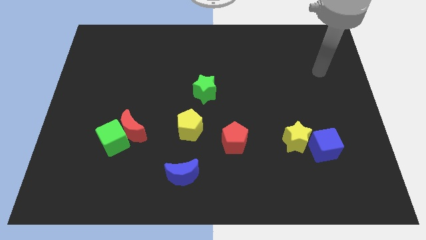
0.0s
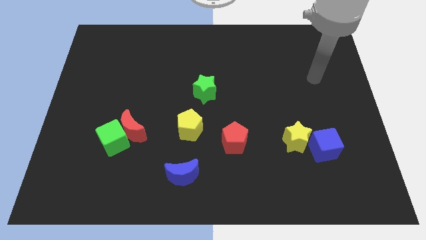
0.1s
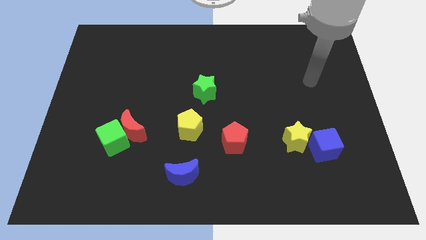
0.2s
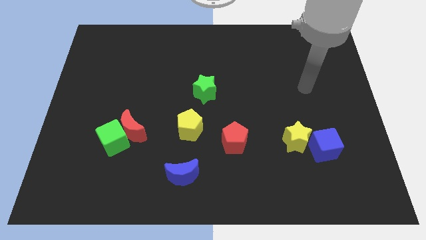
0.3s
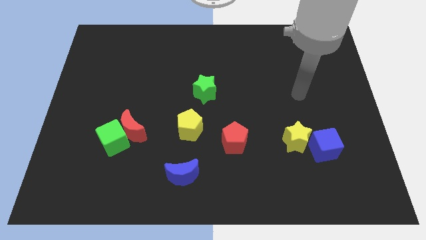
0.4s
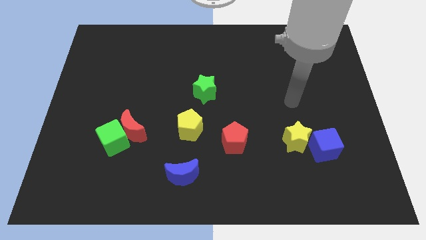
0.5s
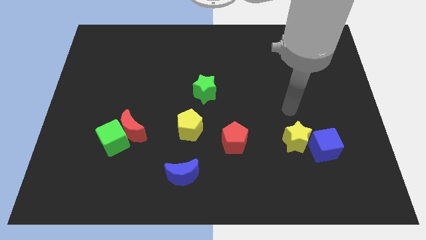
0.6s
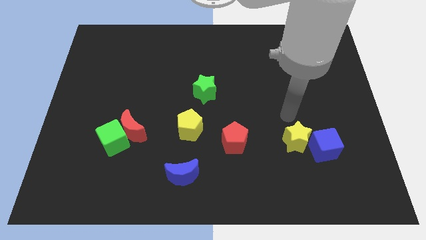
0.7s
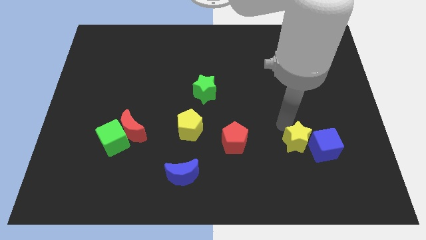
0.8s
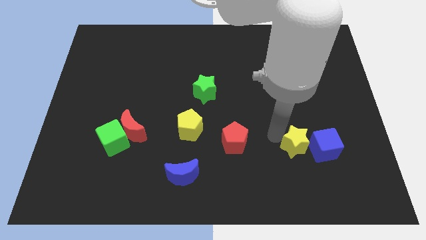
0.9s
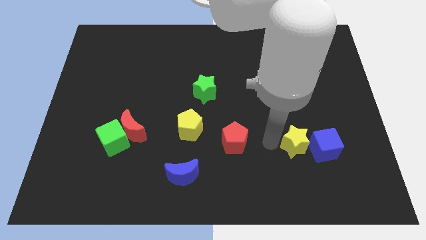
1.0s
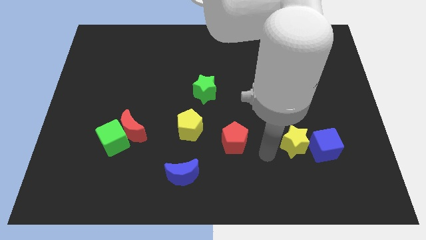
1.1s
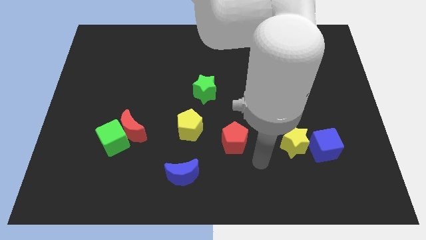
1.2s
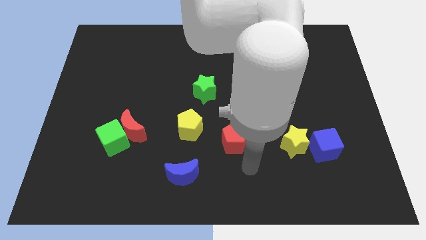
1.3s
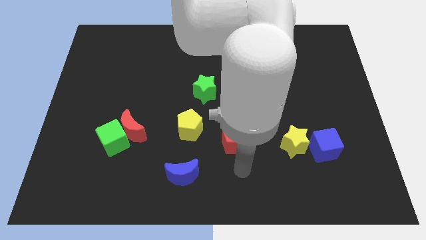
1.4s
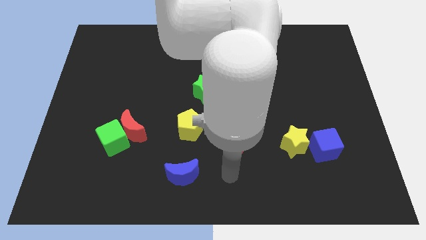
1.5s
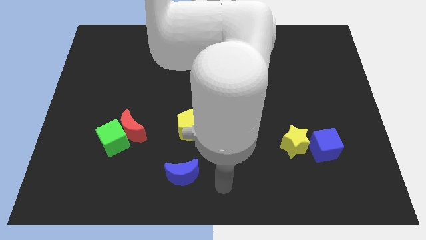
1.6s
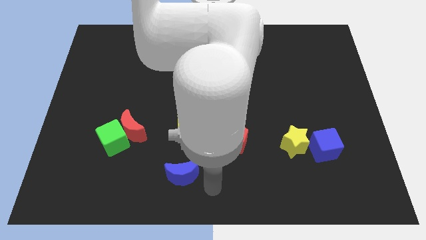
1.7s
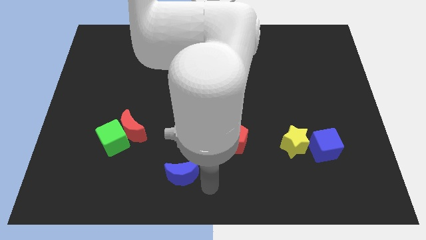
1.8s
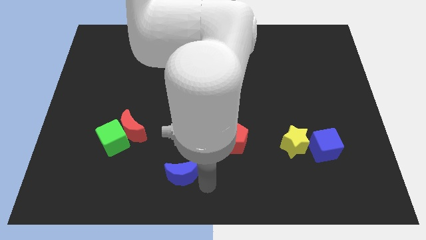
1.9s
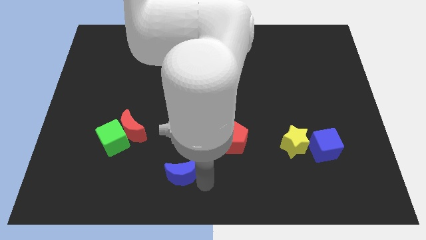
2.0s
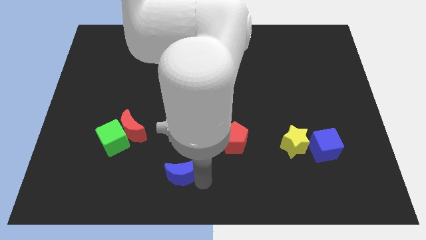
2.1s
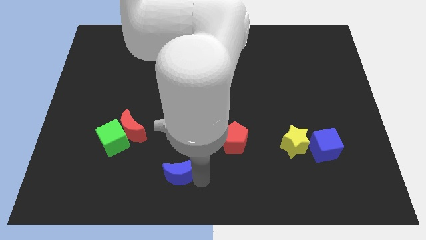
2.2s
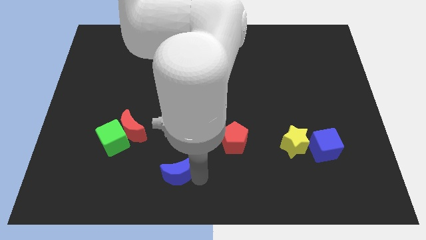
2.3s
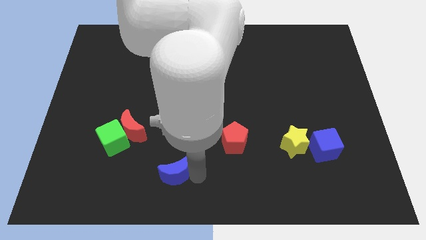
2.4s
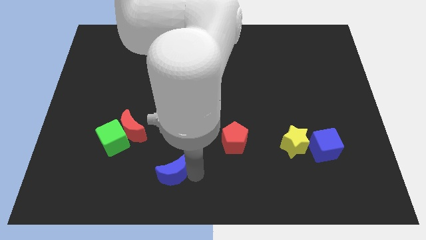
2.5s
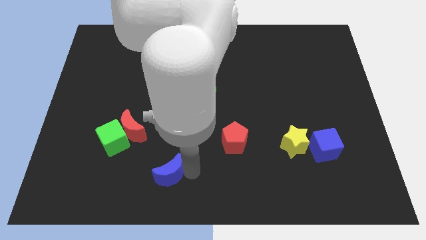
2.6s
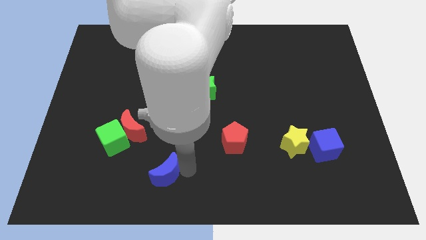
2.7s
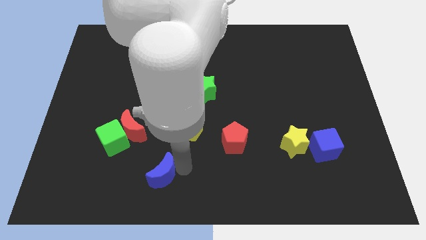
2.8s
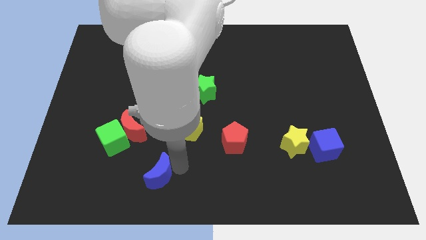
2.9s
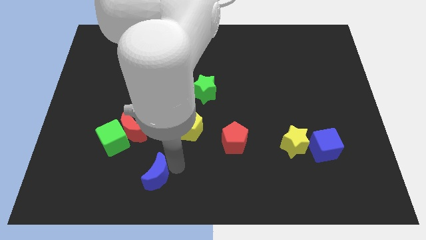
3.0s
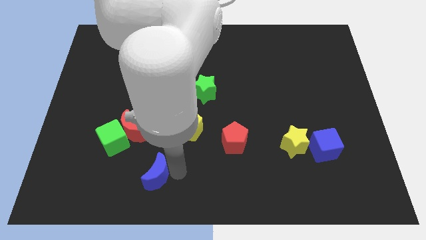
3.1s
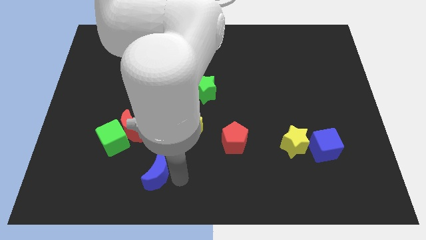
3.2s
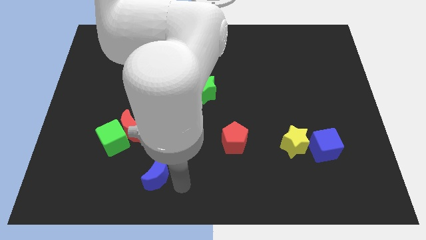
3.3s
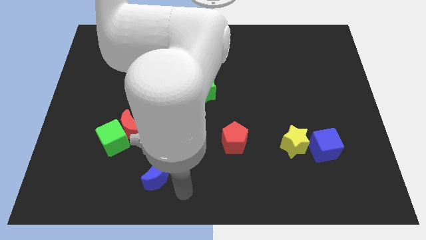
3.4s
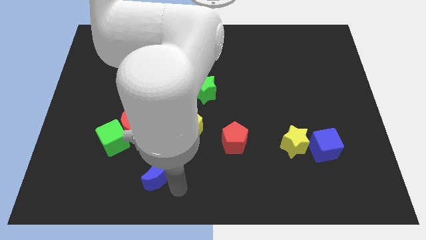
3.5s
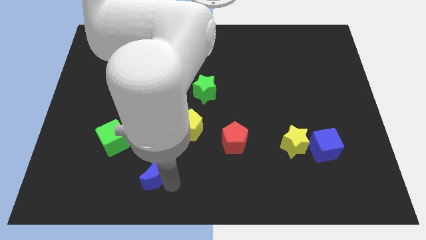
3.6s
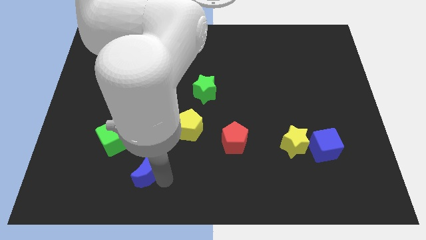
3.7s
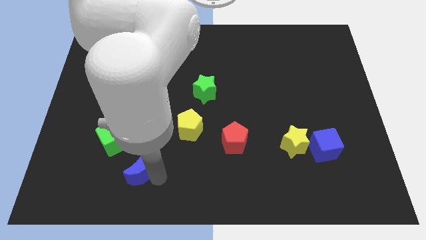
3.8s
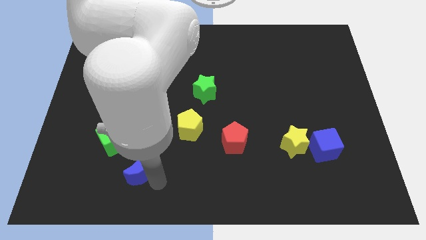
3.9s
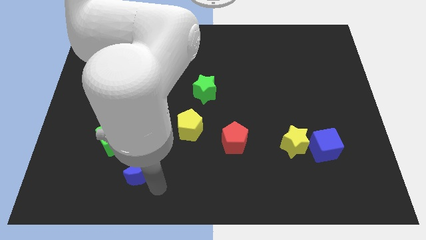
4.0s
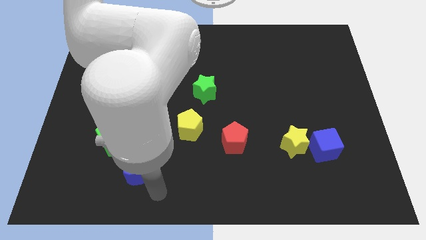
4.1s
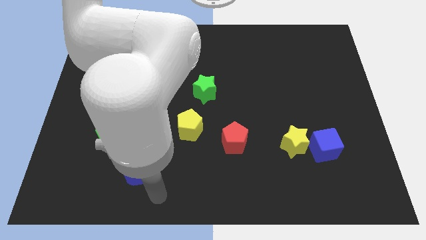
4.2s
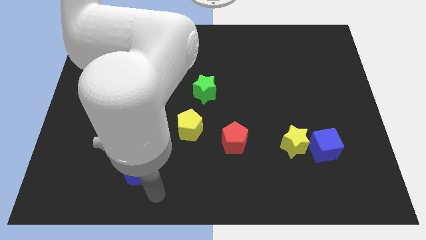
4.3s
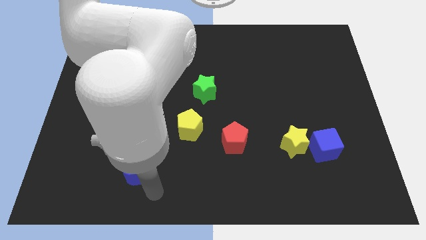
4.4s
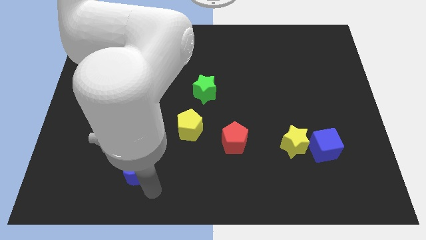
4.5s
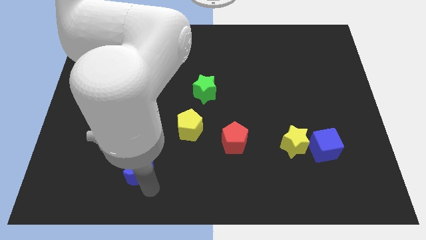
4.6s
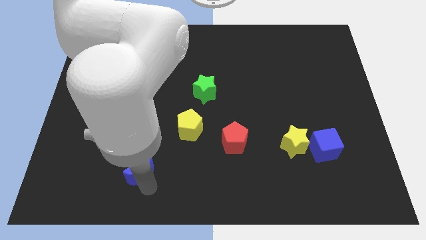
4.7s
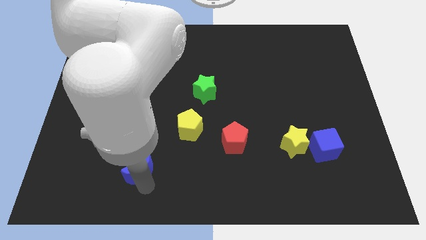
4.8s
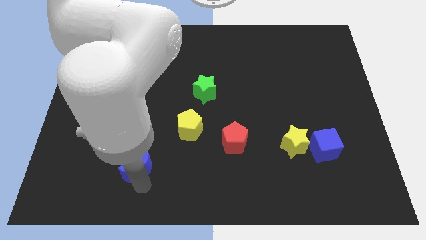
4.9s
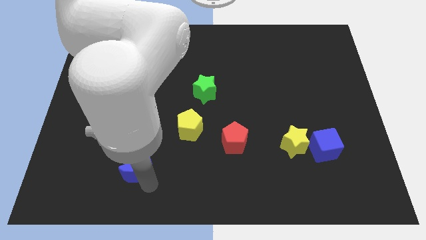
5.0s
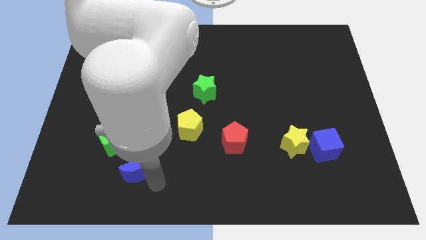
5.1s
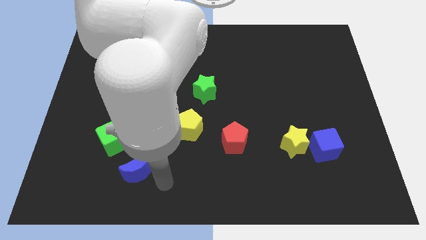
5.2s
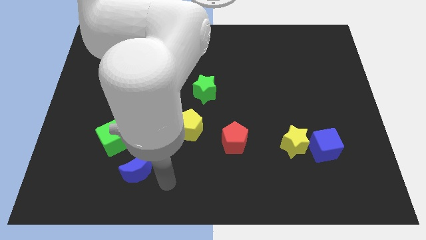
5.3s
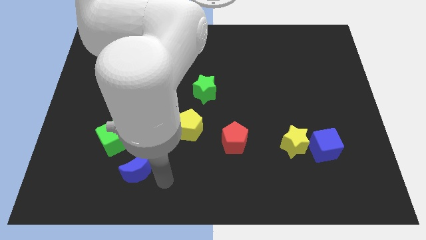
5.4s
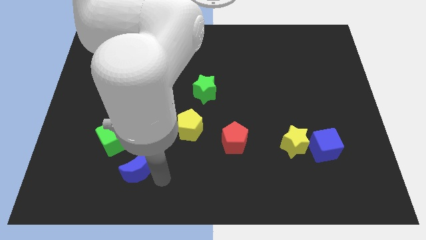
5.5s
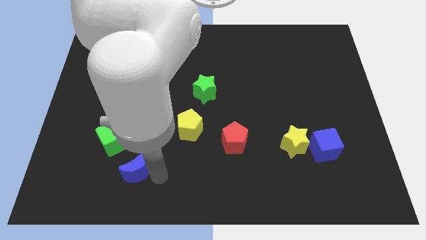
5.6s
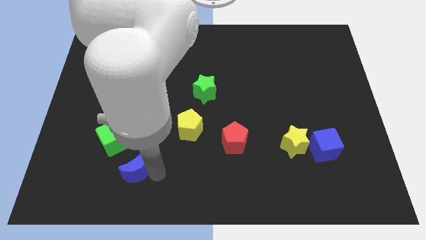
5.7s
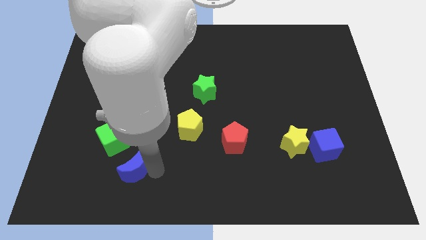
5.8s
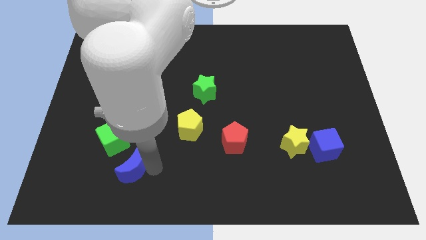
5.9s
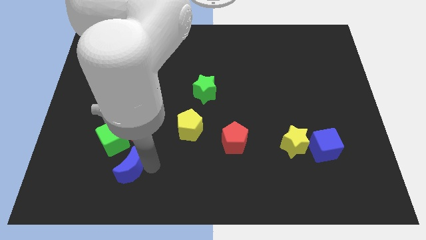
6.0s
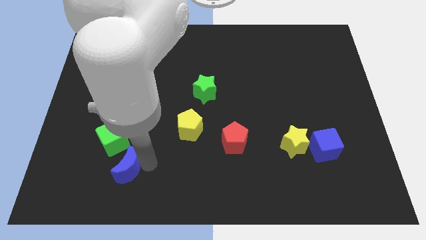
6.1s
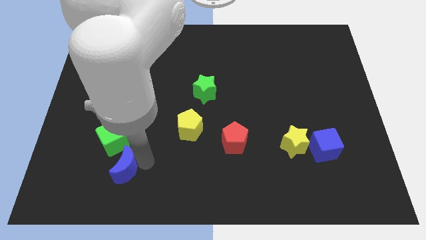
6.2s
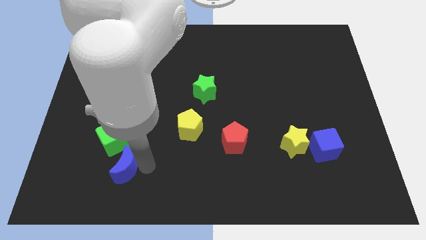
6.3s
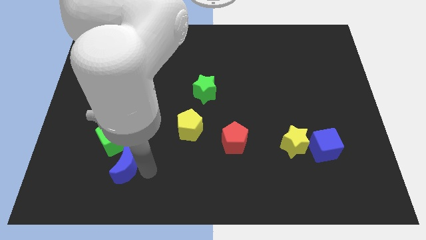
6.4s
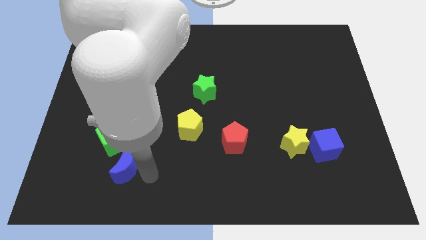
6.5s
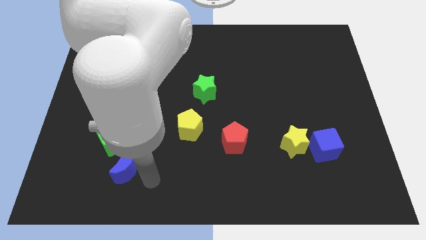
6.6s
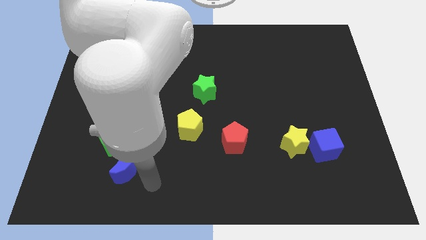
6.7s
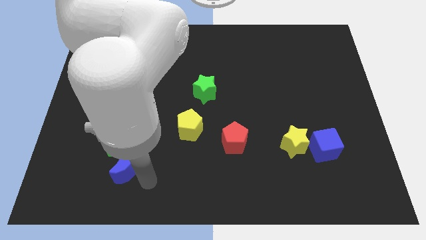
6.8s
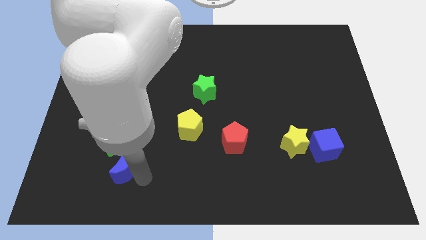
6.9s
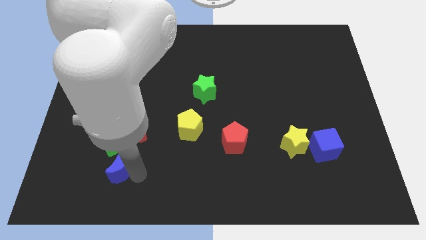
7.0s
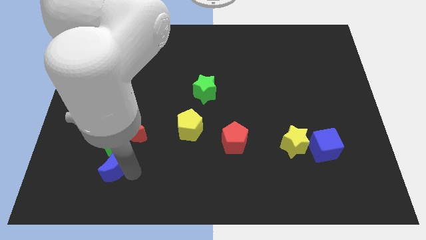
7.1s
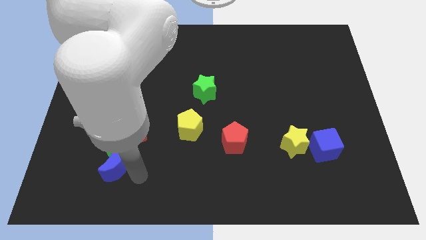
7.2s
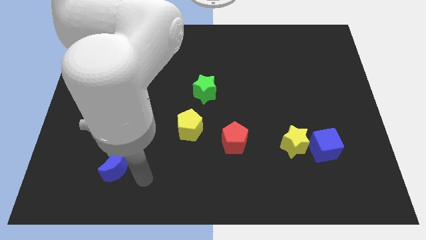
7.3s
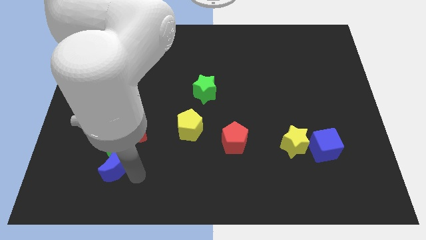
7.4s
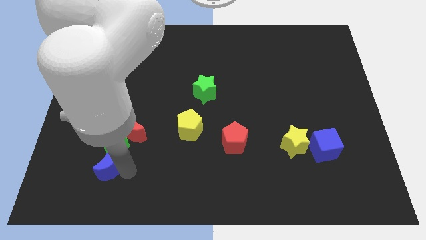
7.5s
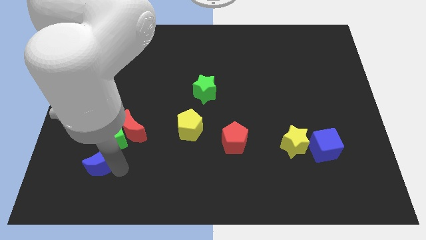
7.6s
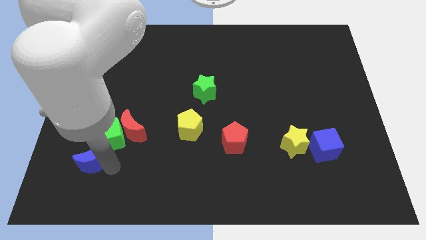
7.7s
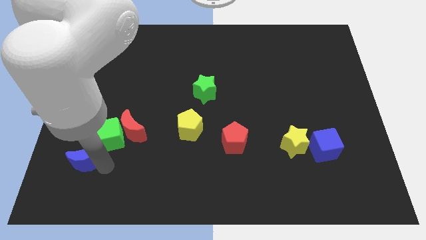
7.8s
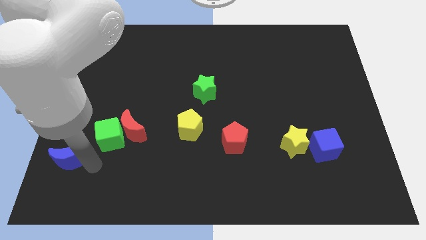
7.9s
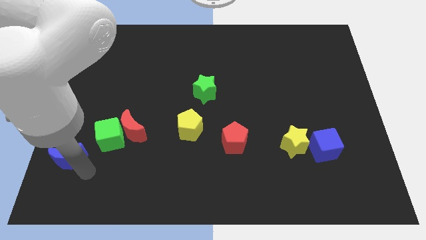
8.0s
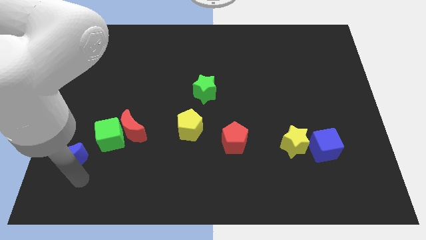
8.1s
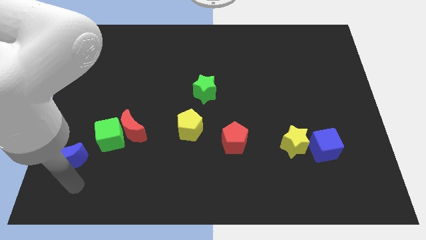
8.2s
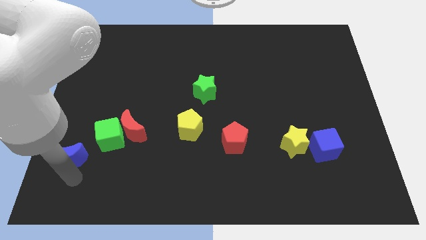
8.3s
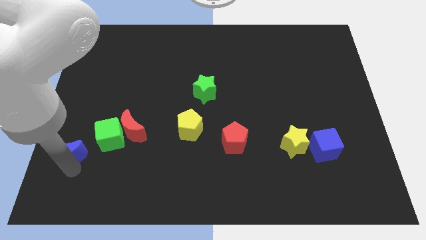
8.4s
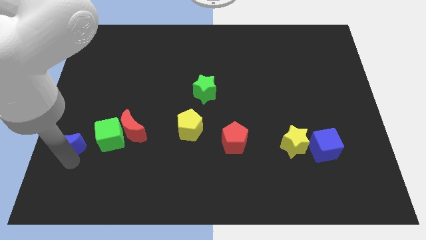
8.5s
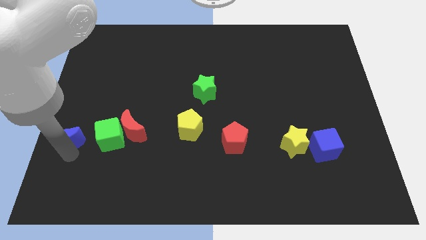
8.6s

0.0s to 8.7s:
push the blue moon to the left side
